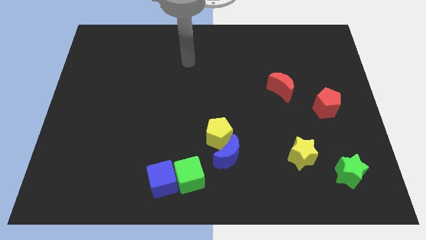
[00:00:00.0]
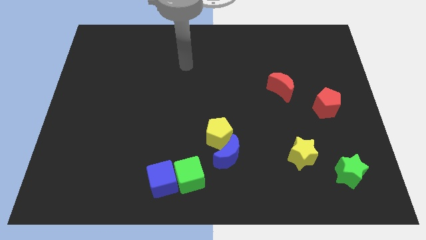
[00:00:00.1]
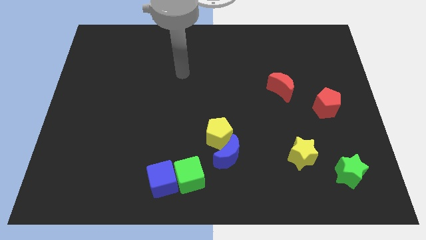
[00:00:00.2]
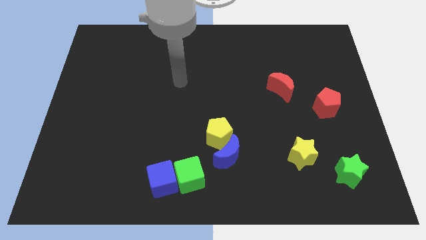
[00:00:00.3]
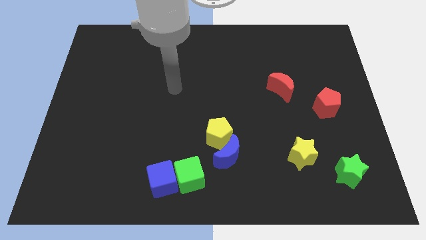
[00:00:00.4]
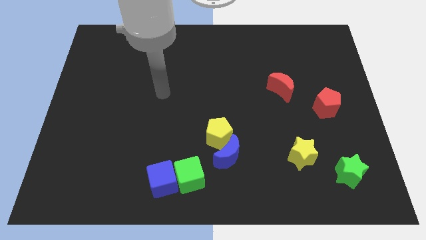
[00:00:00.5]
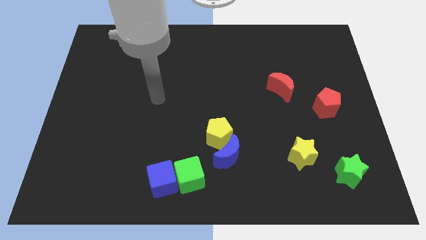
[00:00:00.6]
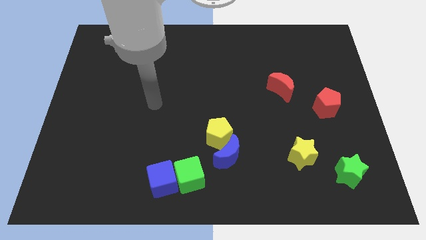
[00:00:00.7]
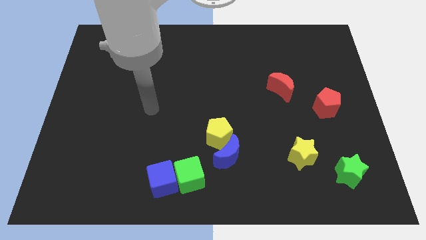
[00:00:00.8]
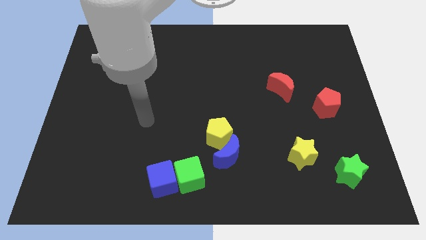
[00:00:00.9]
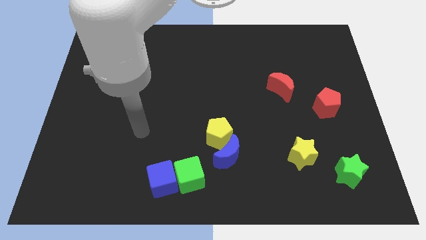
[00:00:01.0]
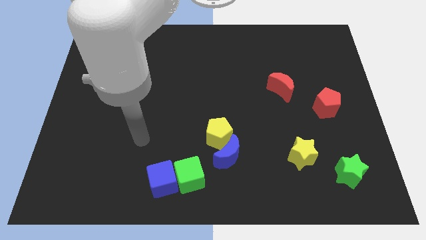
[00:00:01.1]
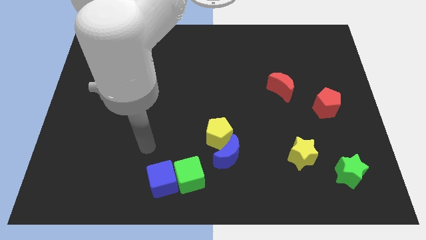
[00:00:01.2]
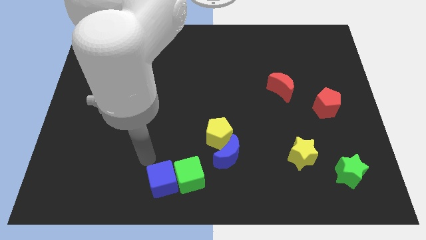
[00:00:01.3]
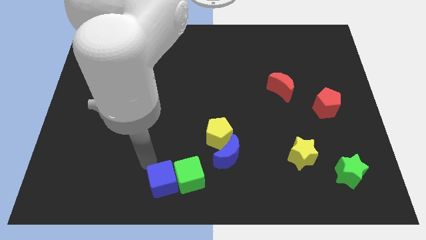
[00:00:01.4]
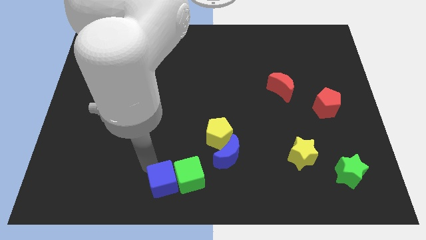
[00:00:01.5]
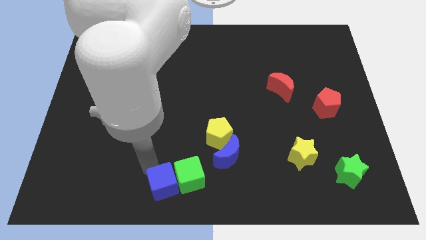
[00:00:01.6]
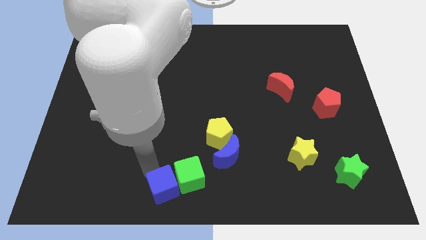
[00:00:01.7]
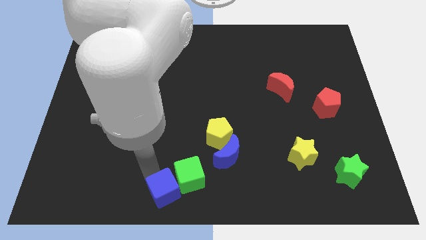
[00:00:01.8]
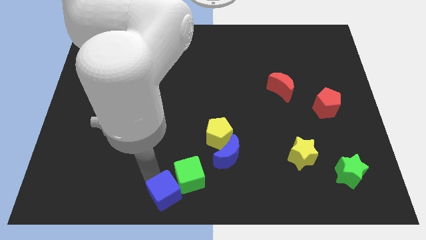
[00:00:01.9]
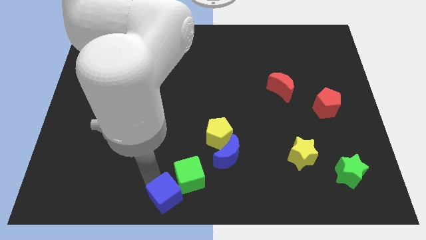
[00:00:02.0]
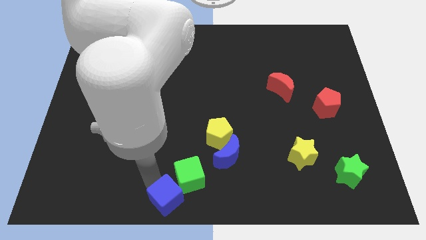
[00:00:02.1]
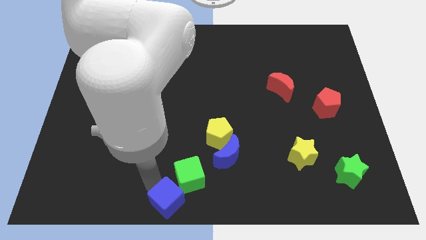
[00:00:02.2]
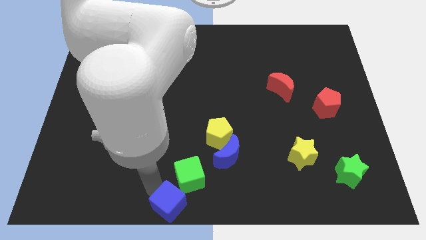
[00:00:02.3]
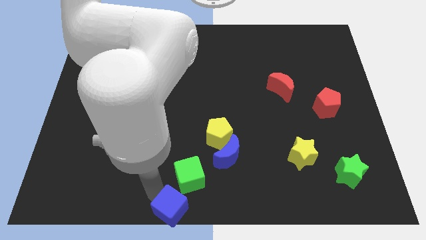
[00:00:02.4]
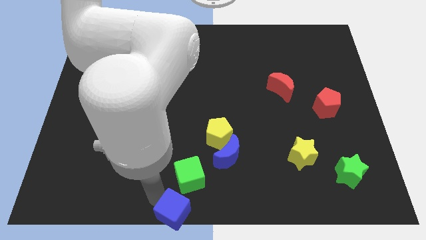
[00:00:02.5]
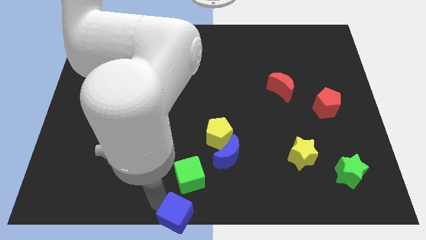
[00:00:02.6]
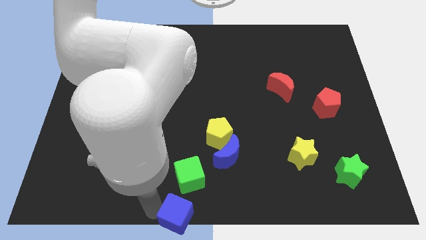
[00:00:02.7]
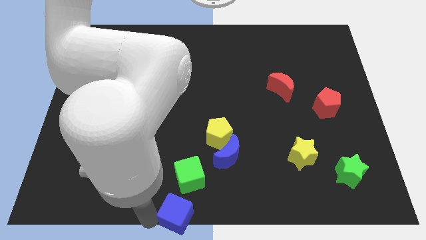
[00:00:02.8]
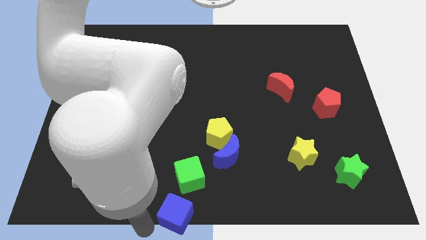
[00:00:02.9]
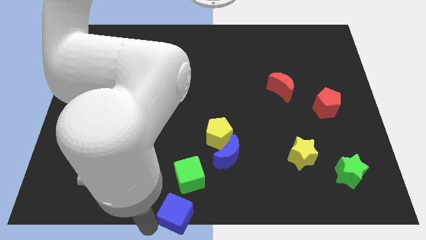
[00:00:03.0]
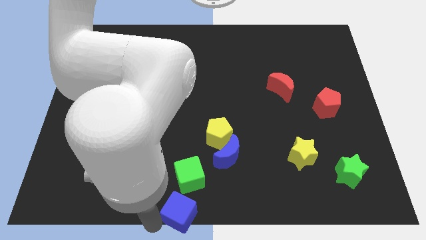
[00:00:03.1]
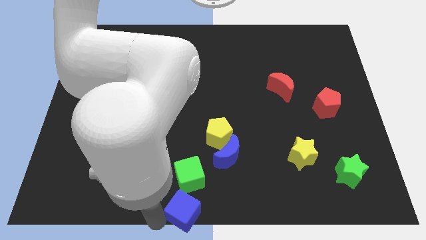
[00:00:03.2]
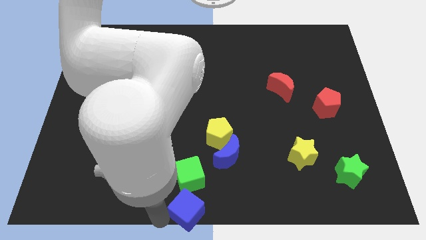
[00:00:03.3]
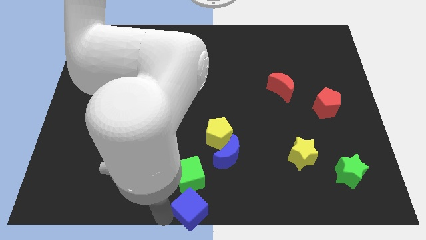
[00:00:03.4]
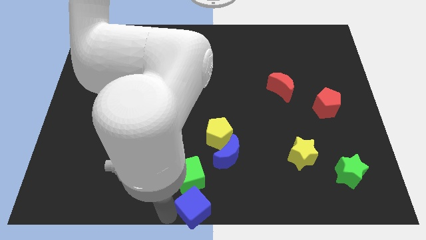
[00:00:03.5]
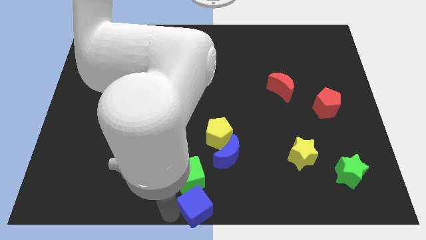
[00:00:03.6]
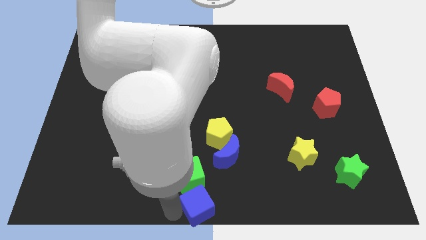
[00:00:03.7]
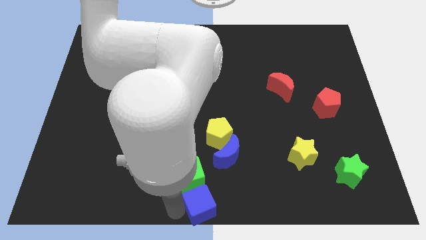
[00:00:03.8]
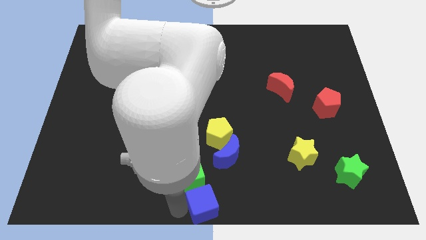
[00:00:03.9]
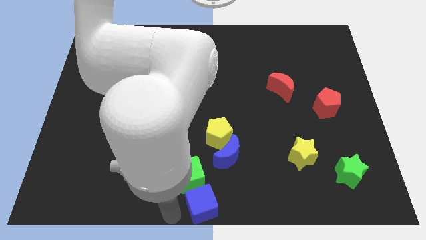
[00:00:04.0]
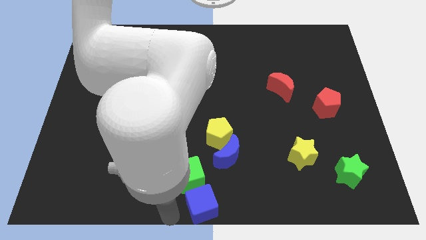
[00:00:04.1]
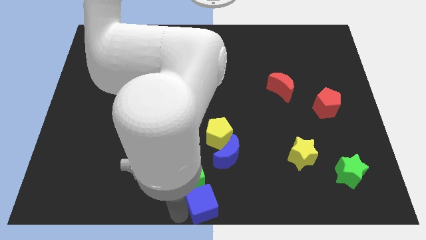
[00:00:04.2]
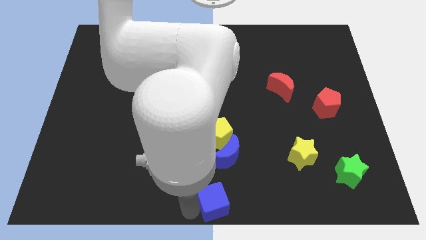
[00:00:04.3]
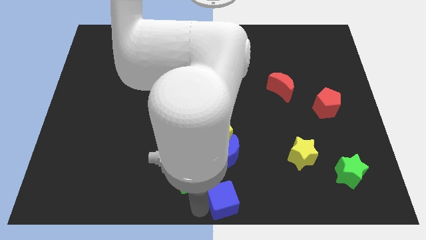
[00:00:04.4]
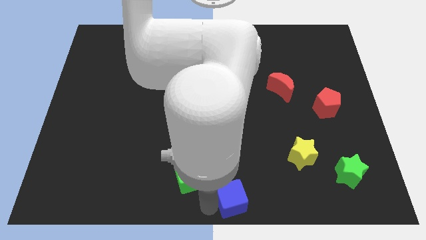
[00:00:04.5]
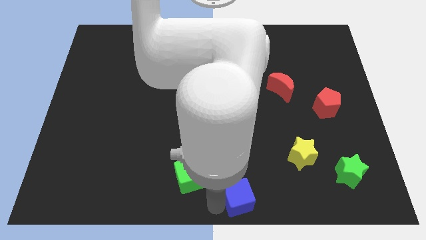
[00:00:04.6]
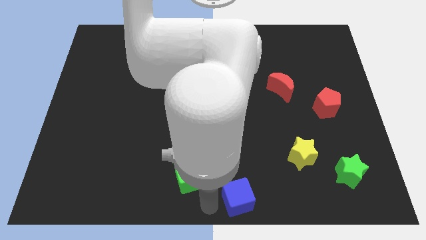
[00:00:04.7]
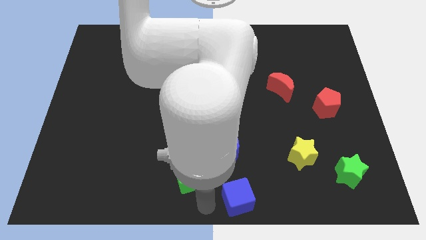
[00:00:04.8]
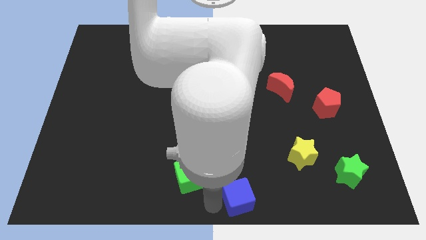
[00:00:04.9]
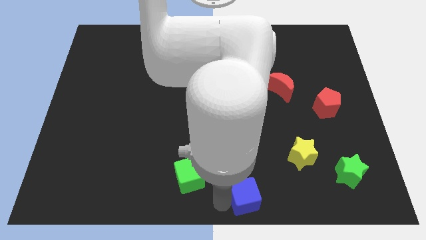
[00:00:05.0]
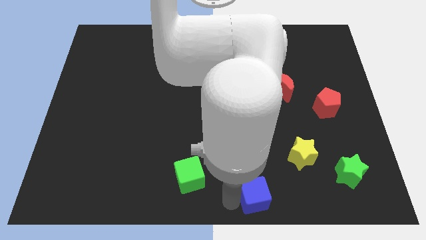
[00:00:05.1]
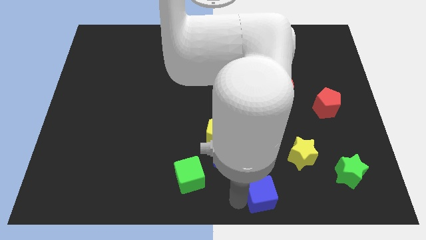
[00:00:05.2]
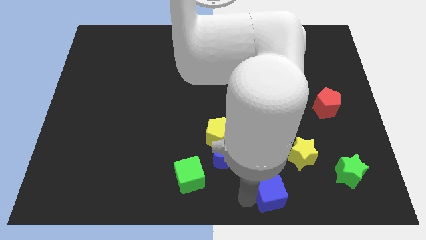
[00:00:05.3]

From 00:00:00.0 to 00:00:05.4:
move the blue cube to the right

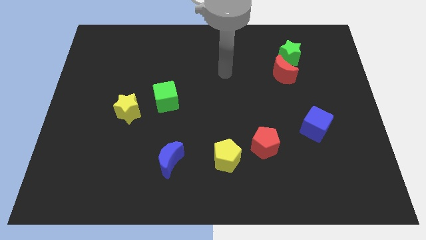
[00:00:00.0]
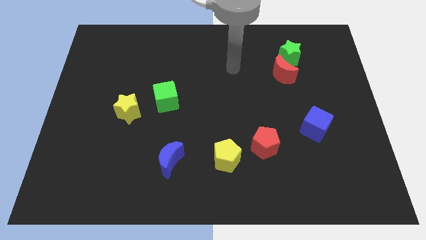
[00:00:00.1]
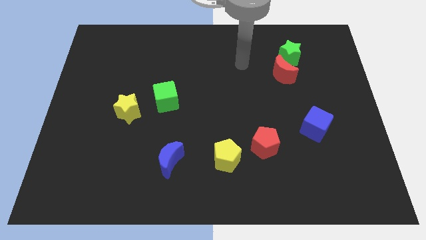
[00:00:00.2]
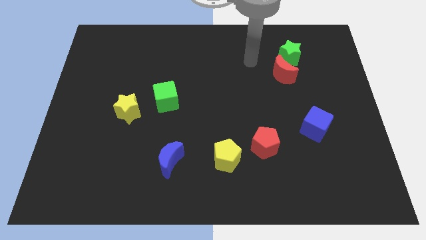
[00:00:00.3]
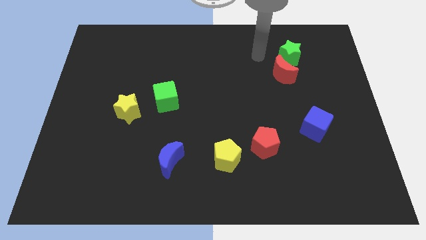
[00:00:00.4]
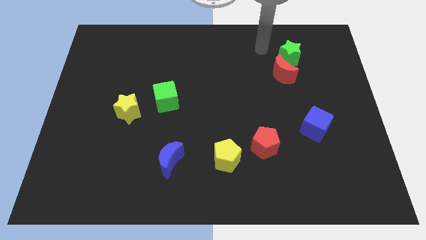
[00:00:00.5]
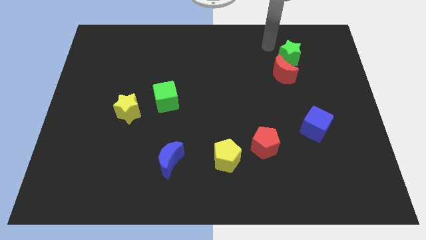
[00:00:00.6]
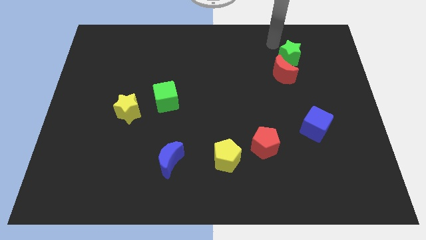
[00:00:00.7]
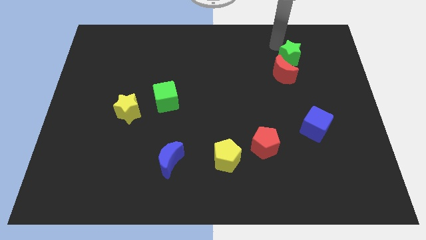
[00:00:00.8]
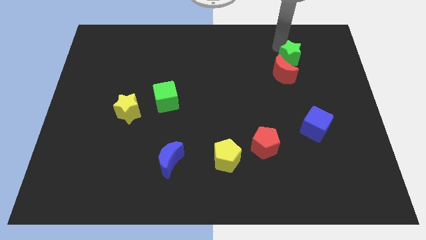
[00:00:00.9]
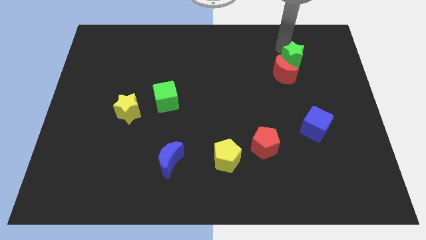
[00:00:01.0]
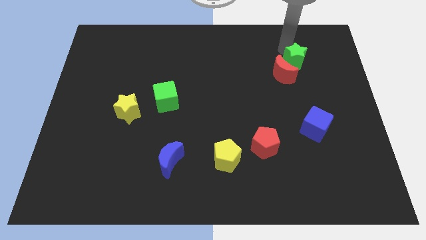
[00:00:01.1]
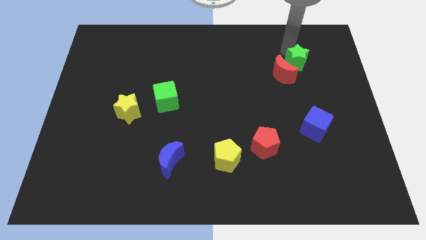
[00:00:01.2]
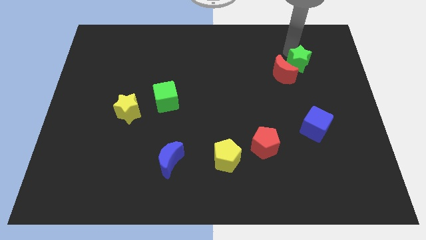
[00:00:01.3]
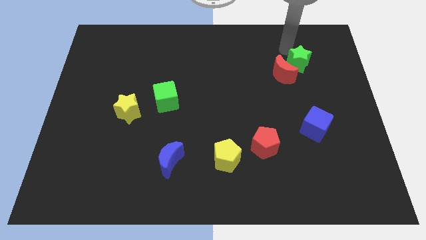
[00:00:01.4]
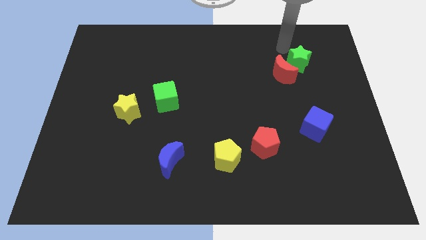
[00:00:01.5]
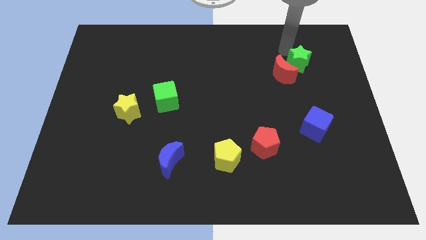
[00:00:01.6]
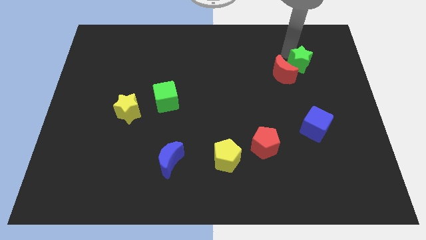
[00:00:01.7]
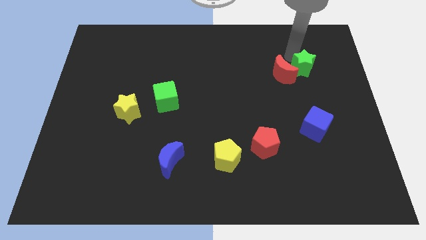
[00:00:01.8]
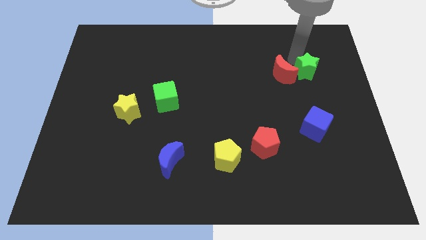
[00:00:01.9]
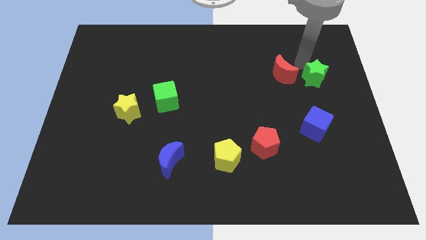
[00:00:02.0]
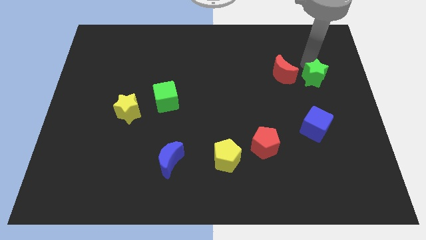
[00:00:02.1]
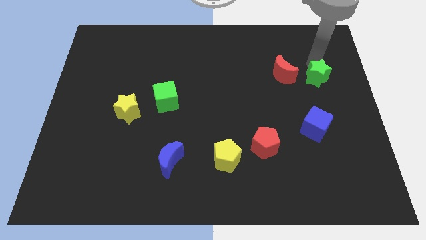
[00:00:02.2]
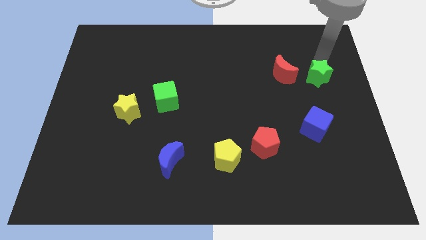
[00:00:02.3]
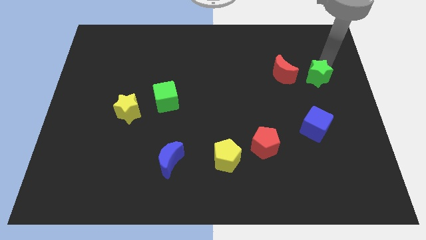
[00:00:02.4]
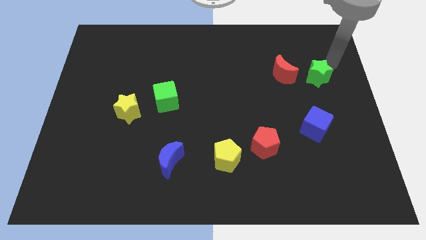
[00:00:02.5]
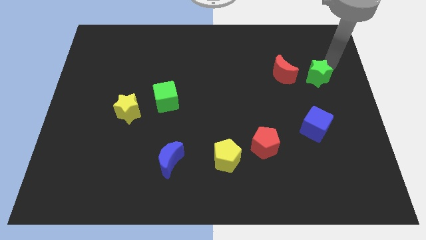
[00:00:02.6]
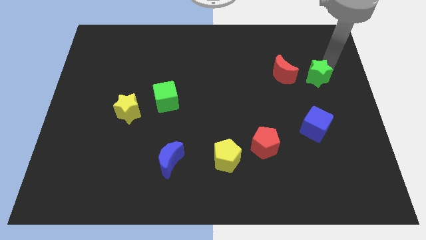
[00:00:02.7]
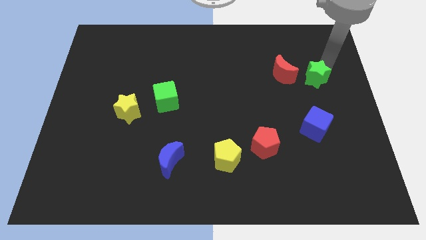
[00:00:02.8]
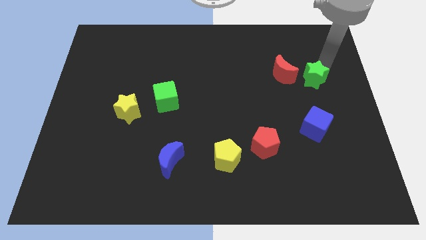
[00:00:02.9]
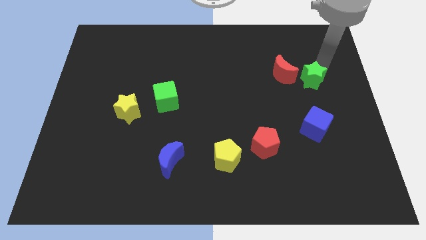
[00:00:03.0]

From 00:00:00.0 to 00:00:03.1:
push the green star downwards somewhat
